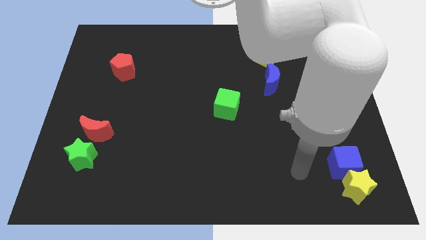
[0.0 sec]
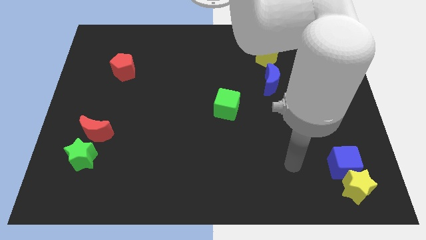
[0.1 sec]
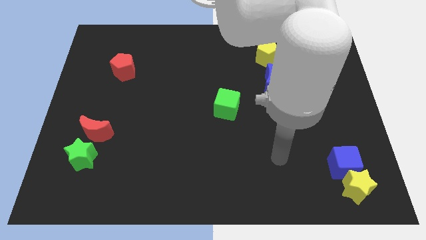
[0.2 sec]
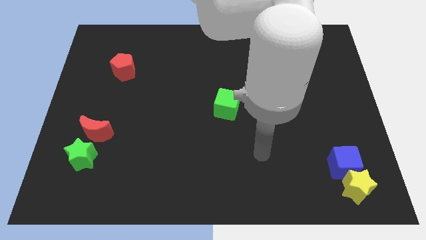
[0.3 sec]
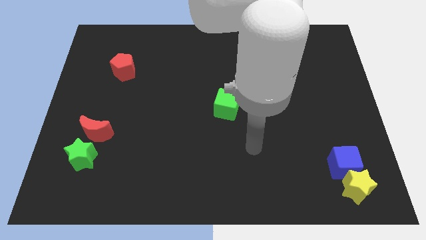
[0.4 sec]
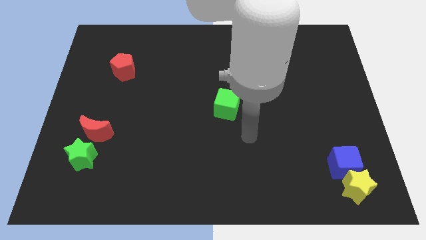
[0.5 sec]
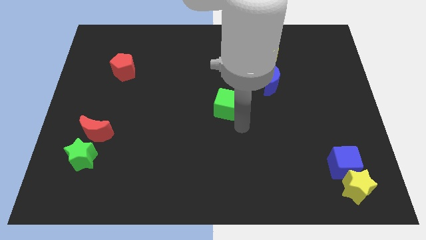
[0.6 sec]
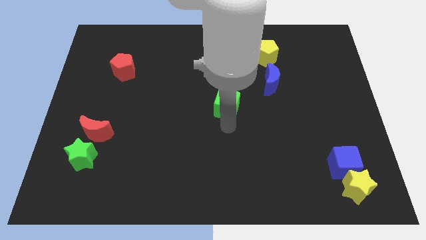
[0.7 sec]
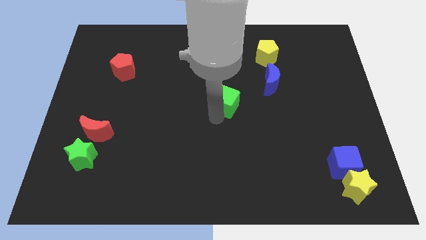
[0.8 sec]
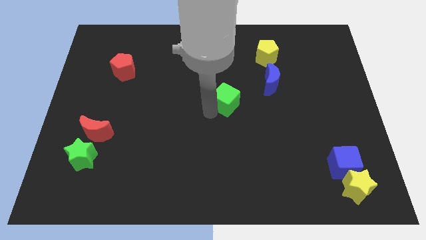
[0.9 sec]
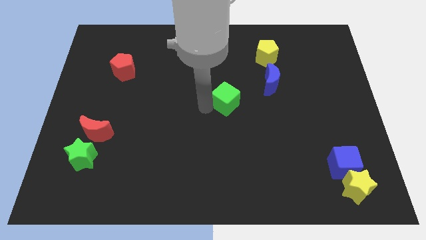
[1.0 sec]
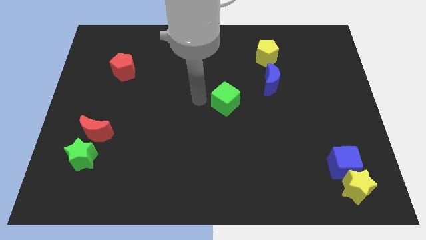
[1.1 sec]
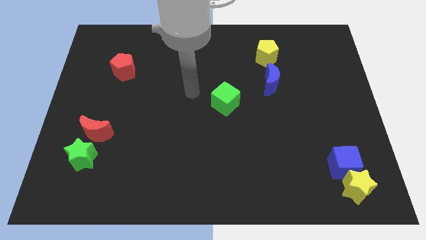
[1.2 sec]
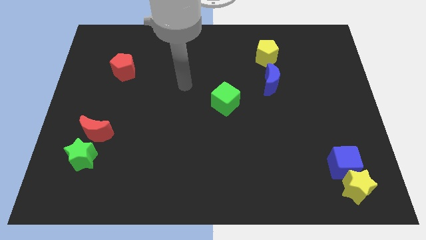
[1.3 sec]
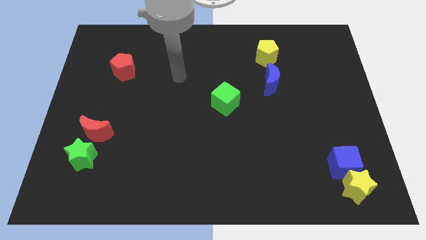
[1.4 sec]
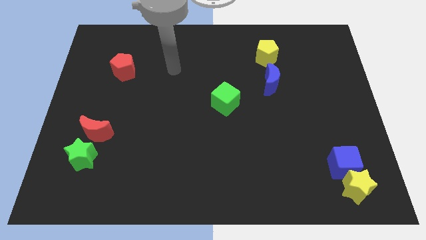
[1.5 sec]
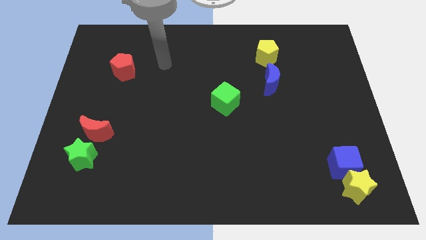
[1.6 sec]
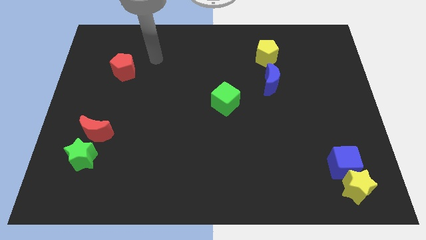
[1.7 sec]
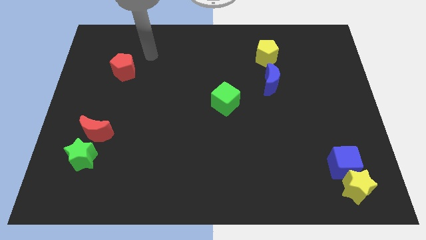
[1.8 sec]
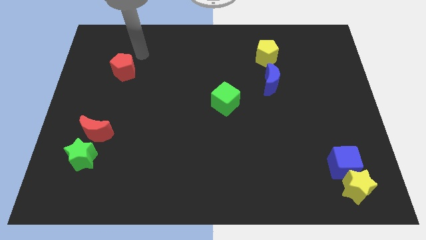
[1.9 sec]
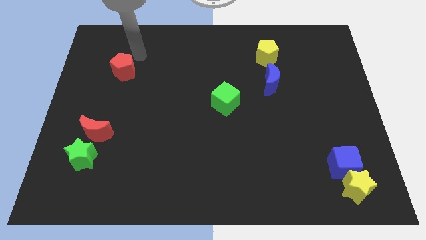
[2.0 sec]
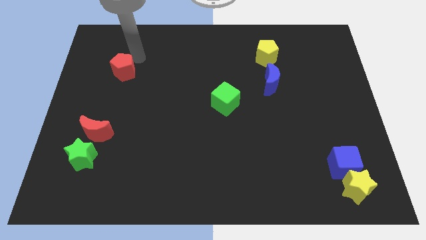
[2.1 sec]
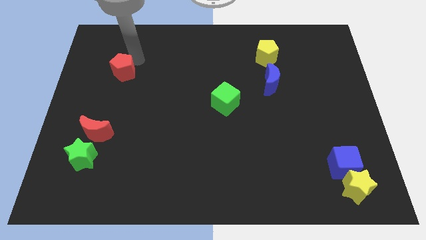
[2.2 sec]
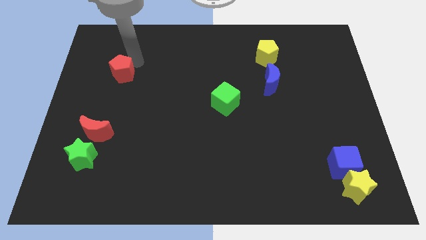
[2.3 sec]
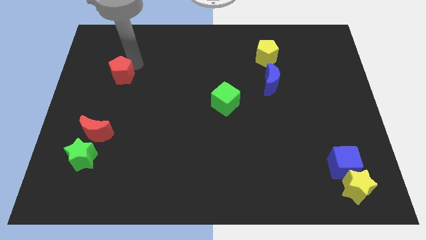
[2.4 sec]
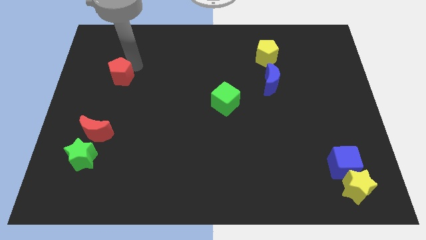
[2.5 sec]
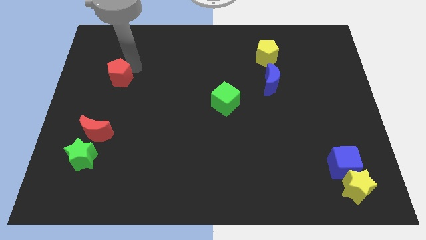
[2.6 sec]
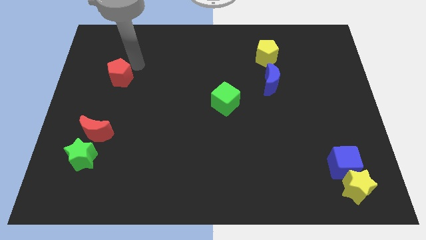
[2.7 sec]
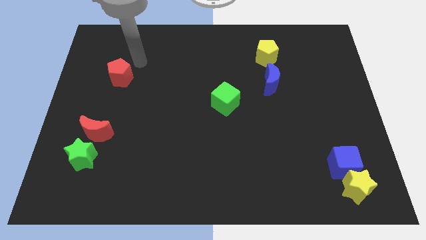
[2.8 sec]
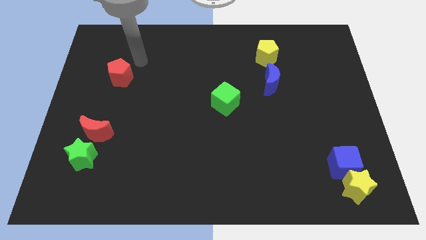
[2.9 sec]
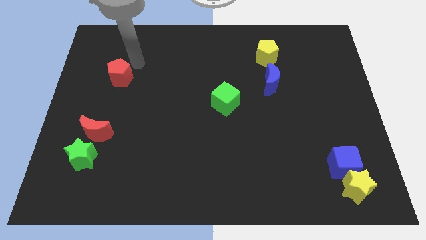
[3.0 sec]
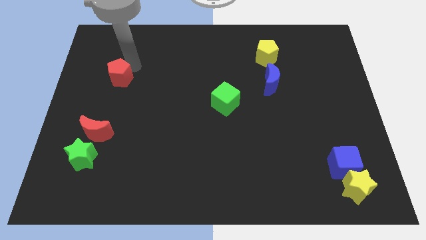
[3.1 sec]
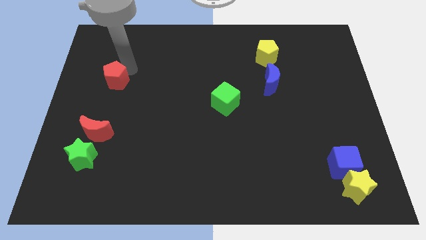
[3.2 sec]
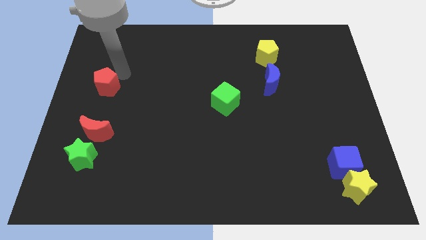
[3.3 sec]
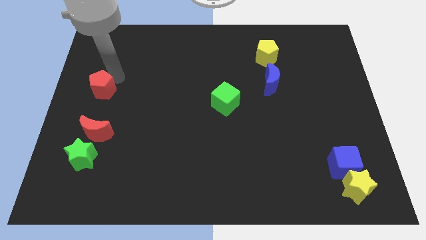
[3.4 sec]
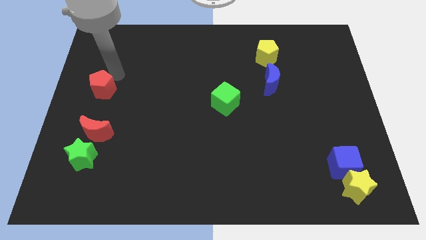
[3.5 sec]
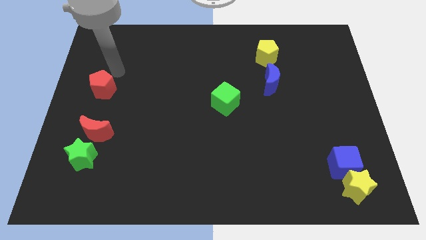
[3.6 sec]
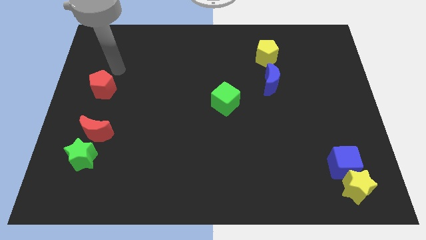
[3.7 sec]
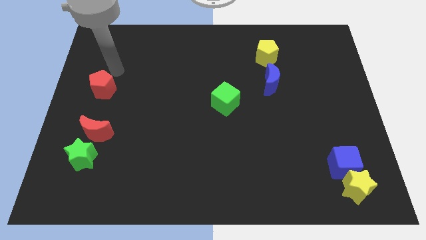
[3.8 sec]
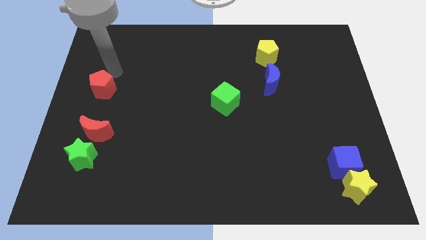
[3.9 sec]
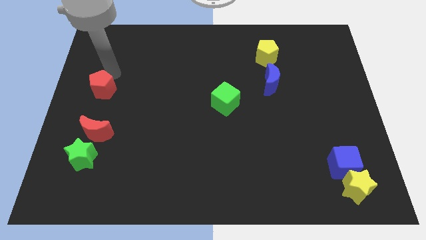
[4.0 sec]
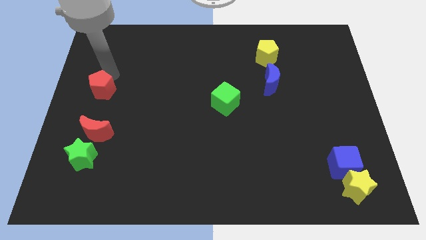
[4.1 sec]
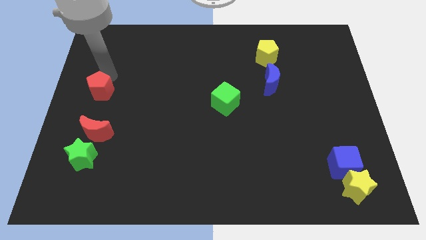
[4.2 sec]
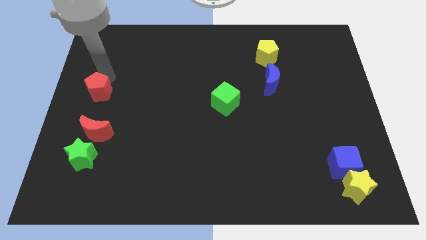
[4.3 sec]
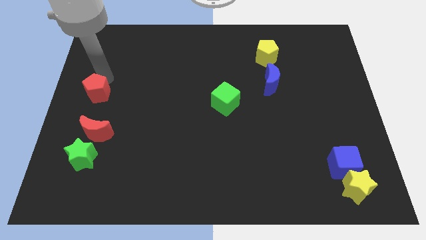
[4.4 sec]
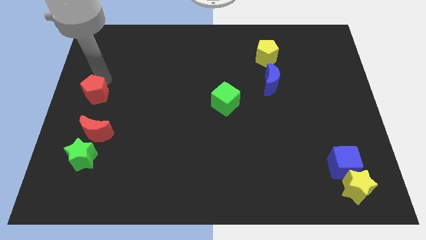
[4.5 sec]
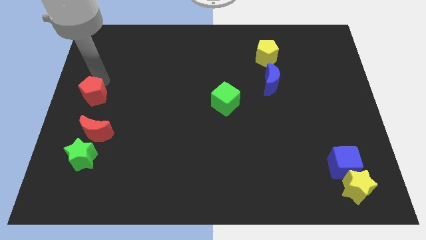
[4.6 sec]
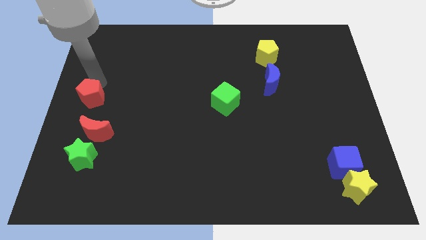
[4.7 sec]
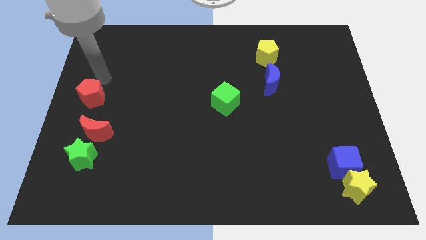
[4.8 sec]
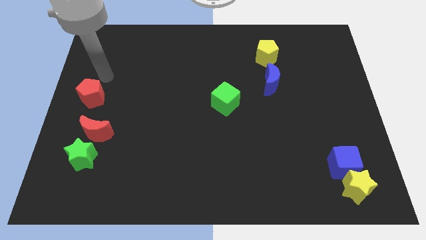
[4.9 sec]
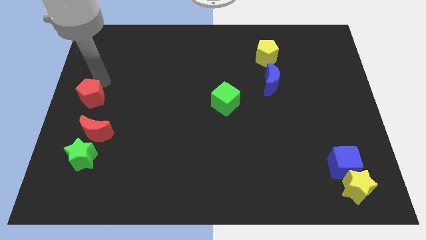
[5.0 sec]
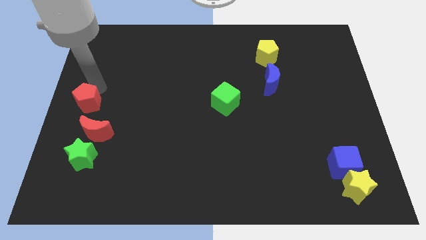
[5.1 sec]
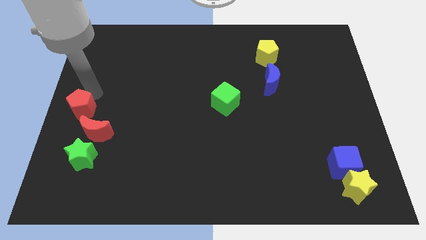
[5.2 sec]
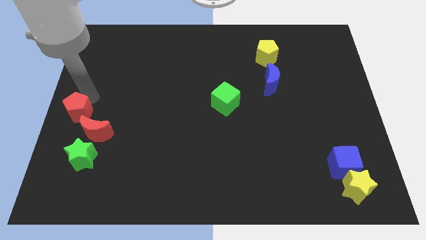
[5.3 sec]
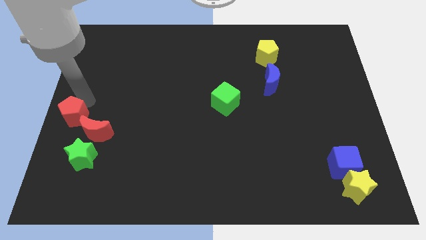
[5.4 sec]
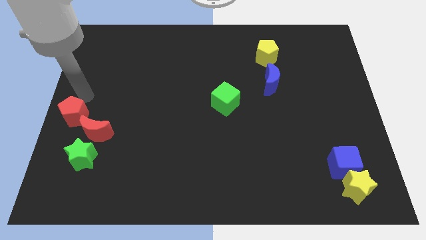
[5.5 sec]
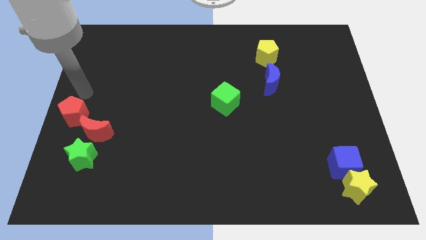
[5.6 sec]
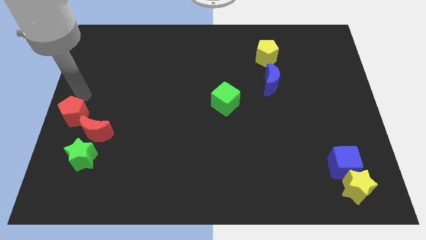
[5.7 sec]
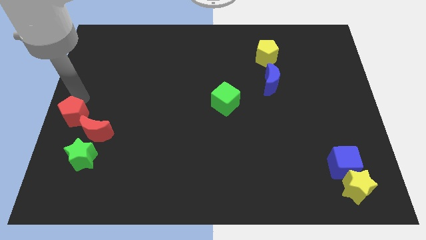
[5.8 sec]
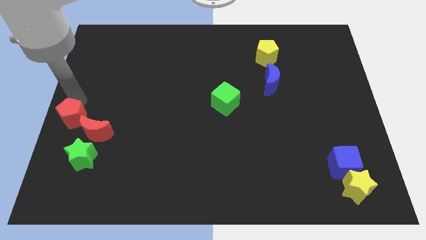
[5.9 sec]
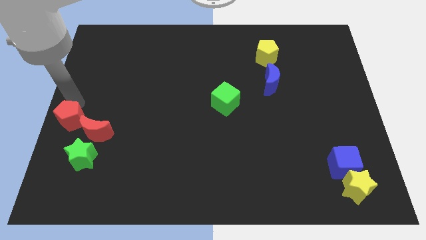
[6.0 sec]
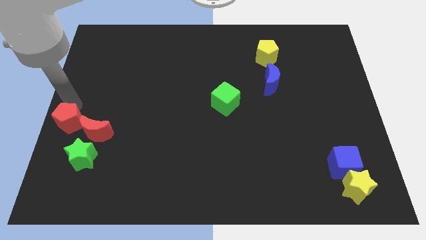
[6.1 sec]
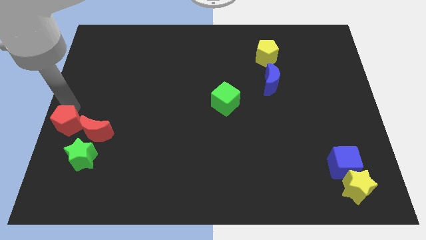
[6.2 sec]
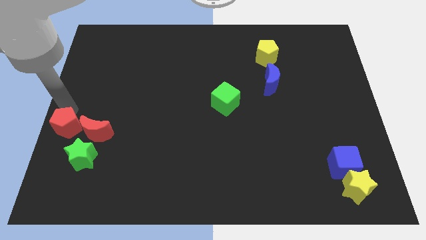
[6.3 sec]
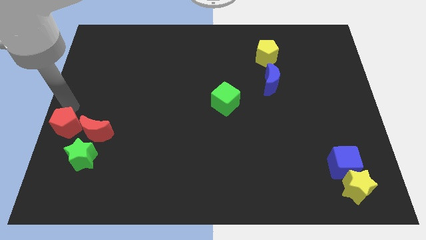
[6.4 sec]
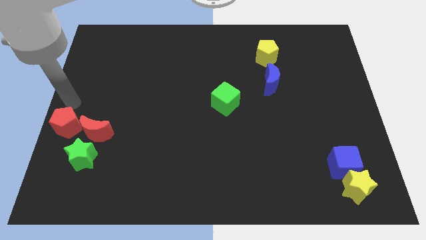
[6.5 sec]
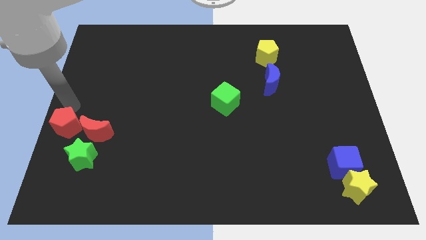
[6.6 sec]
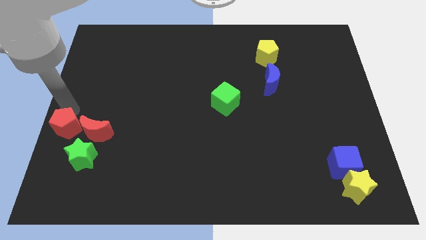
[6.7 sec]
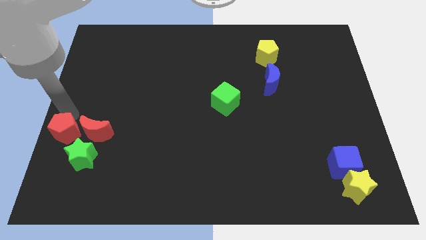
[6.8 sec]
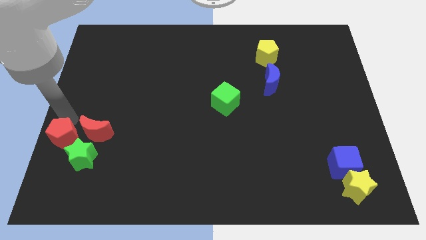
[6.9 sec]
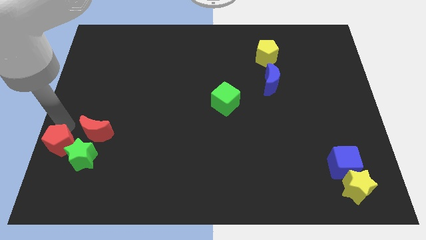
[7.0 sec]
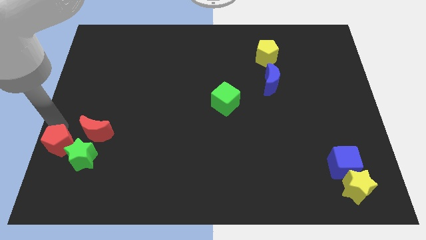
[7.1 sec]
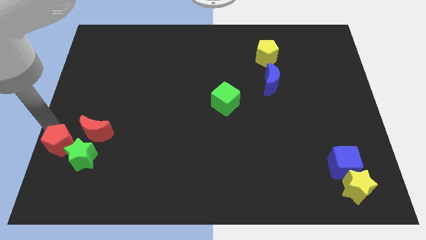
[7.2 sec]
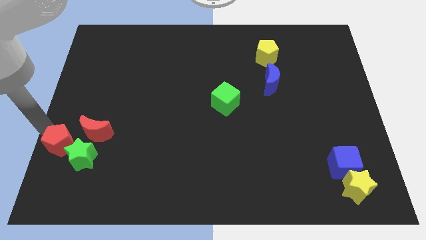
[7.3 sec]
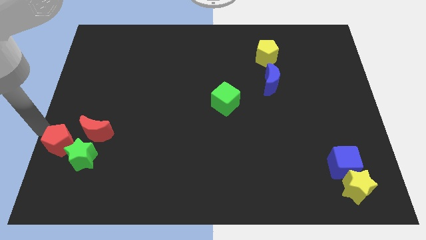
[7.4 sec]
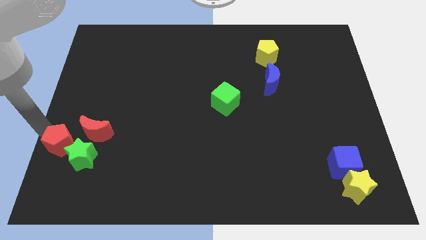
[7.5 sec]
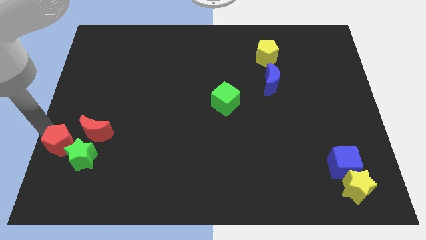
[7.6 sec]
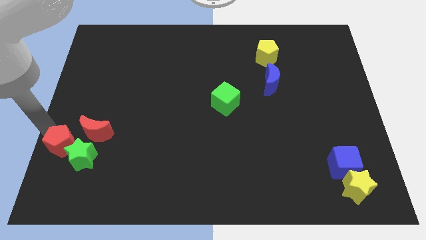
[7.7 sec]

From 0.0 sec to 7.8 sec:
push the red pentagon to the green star
